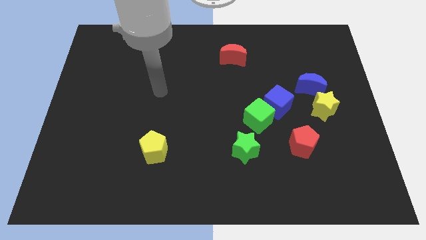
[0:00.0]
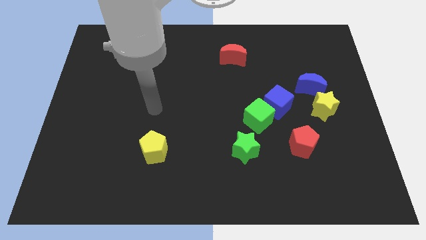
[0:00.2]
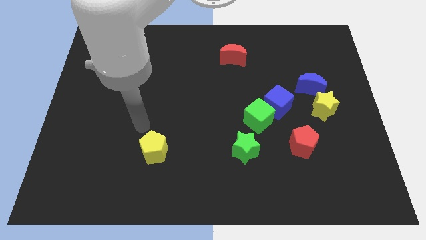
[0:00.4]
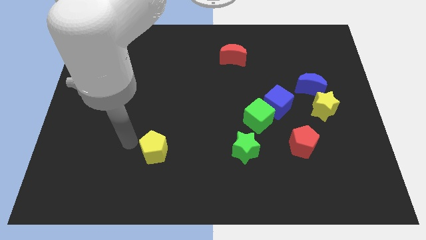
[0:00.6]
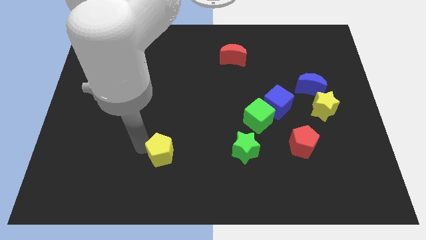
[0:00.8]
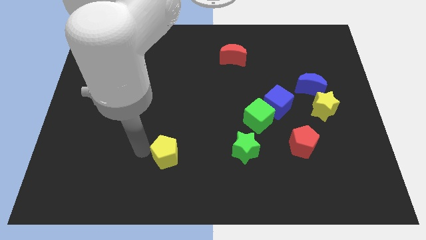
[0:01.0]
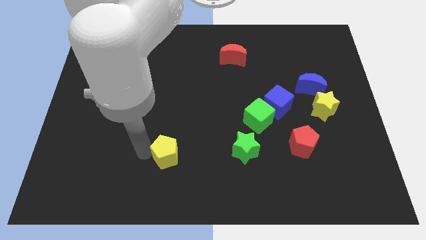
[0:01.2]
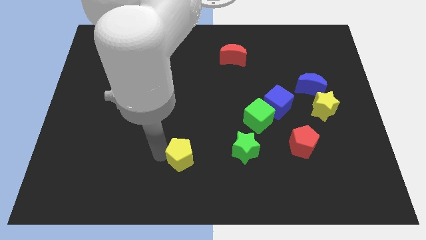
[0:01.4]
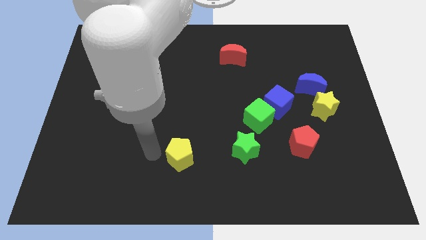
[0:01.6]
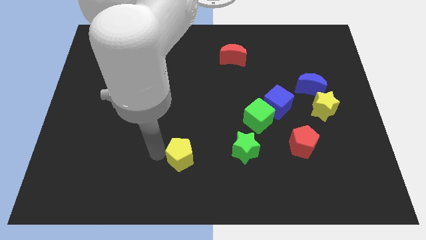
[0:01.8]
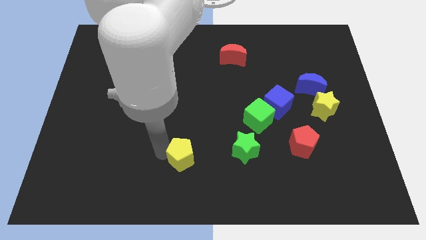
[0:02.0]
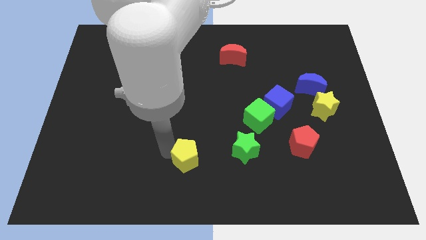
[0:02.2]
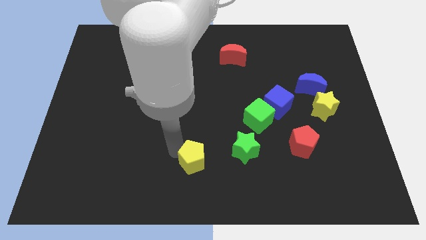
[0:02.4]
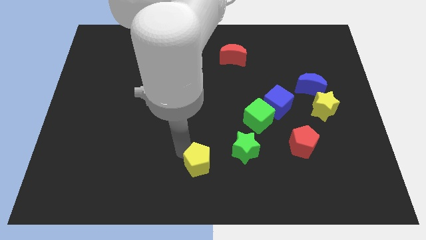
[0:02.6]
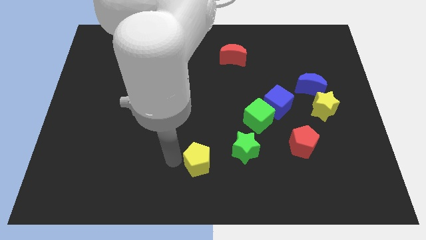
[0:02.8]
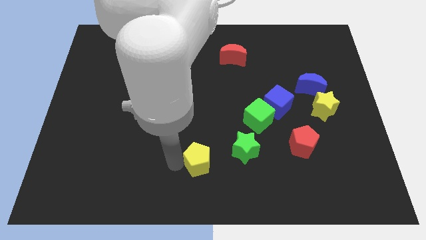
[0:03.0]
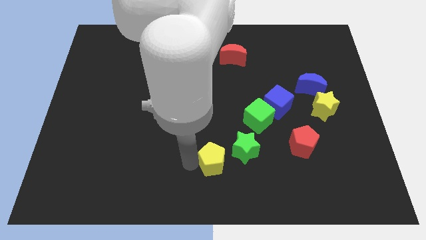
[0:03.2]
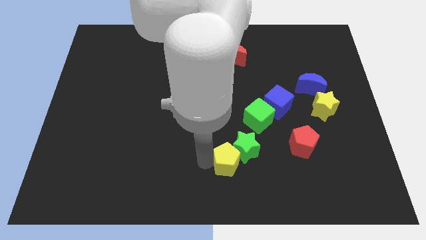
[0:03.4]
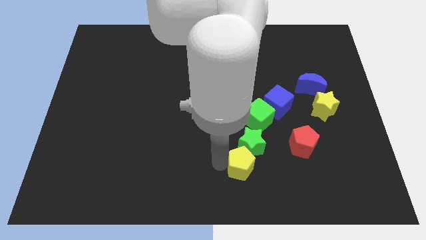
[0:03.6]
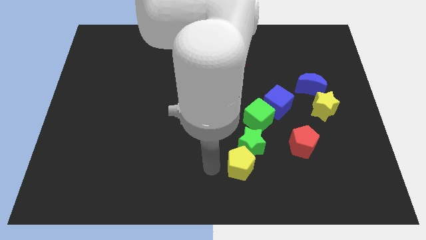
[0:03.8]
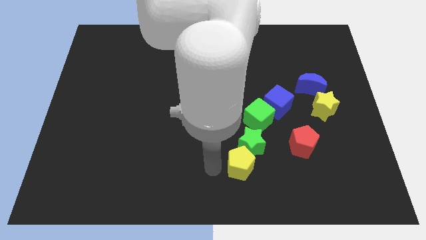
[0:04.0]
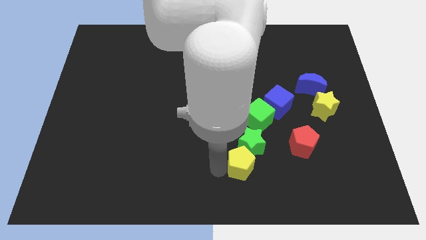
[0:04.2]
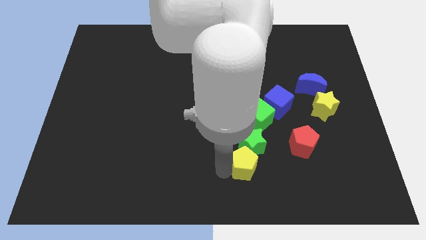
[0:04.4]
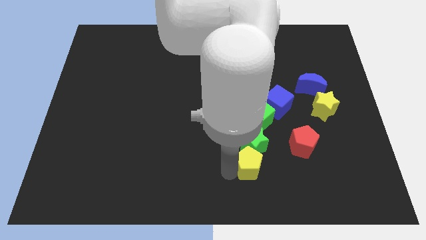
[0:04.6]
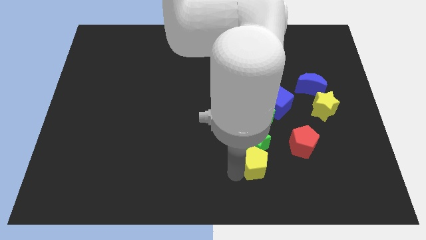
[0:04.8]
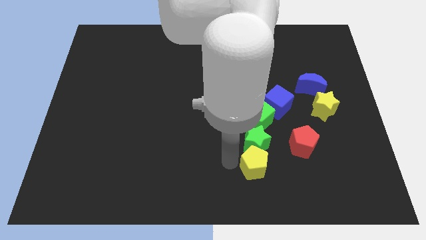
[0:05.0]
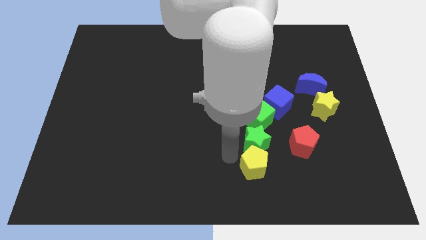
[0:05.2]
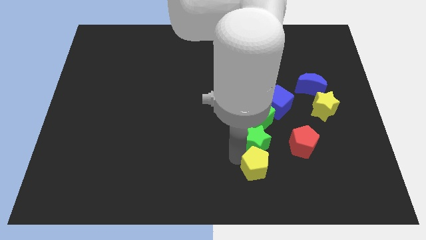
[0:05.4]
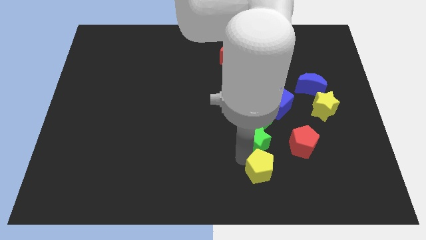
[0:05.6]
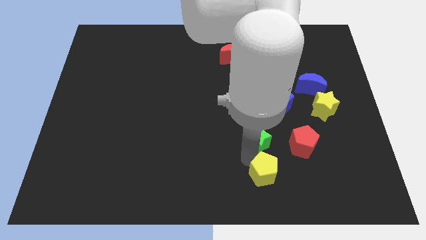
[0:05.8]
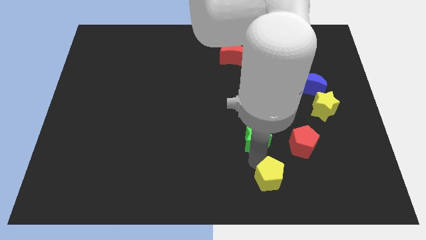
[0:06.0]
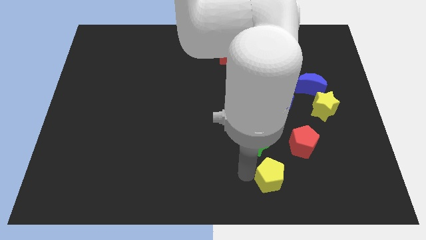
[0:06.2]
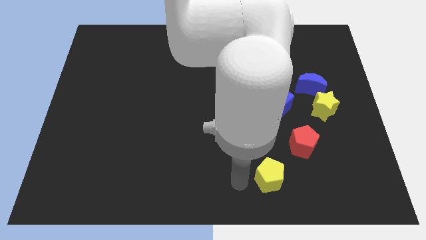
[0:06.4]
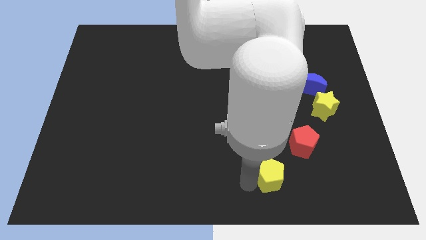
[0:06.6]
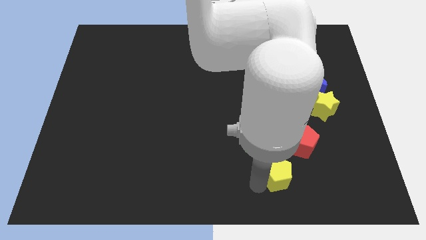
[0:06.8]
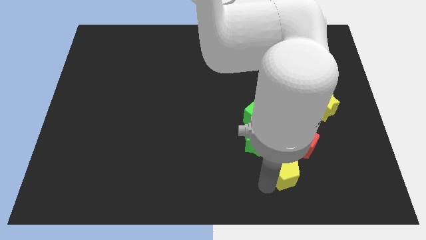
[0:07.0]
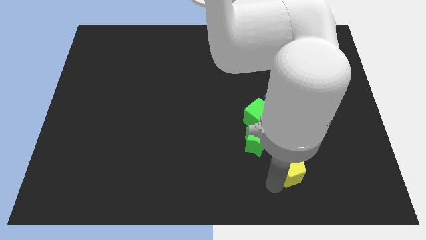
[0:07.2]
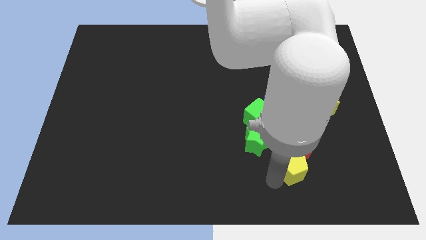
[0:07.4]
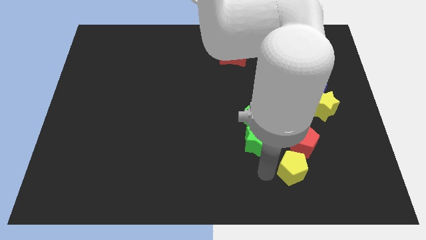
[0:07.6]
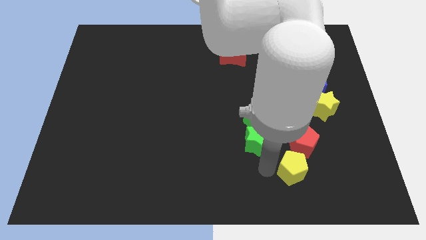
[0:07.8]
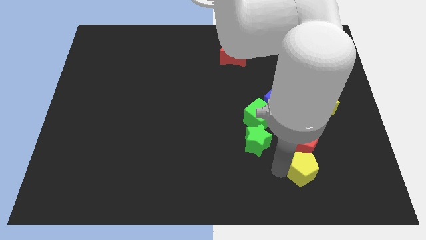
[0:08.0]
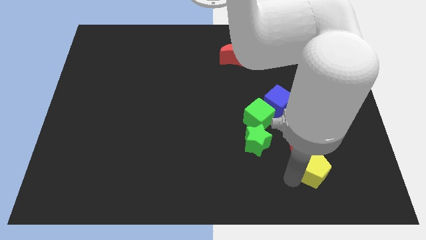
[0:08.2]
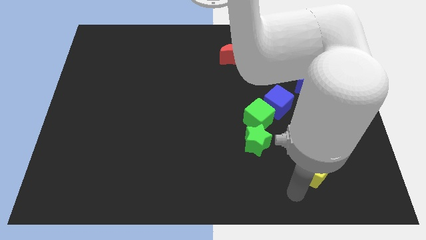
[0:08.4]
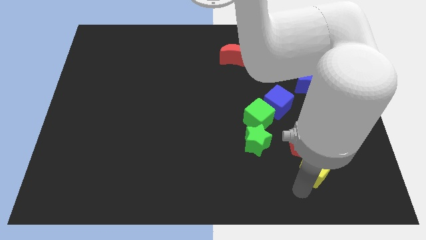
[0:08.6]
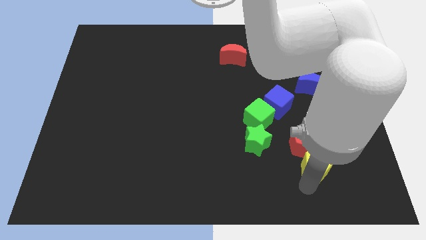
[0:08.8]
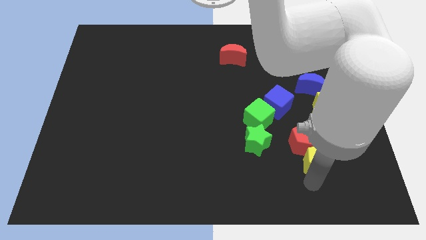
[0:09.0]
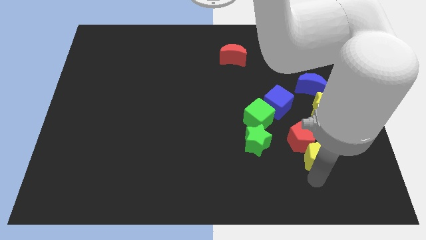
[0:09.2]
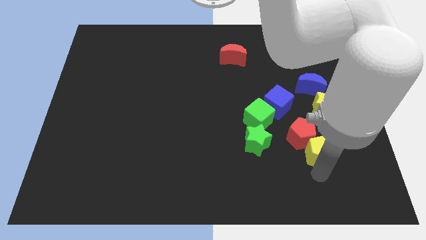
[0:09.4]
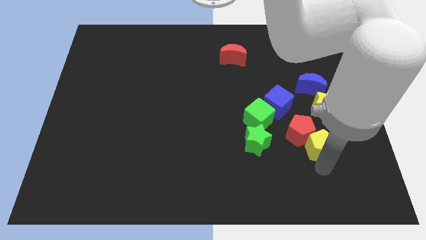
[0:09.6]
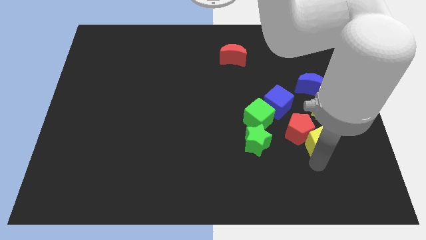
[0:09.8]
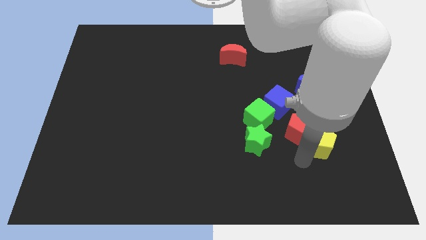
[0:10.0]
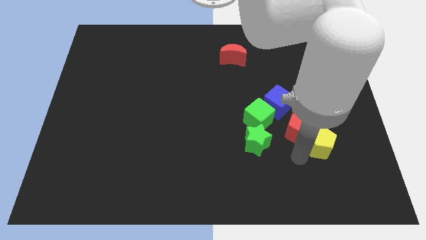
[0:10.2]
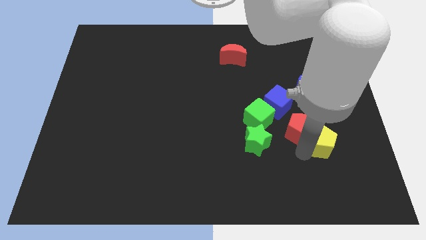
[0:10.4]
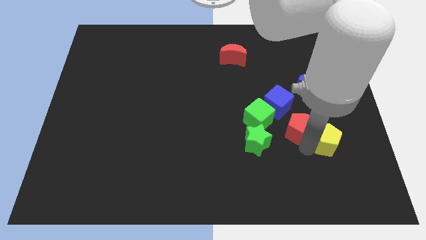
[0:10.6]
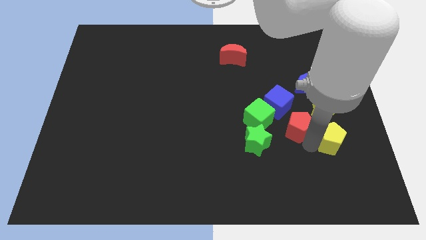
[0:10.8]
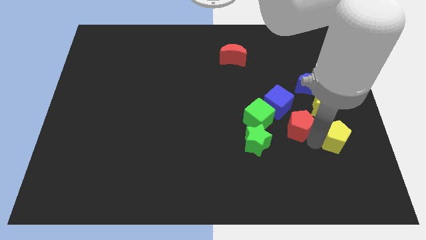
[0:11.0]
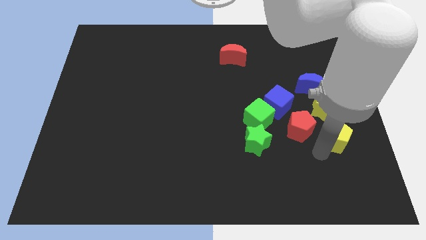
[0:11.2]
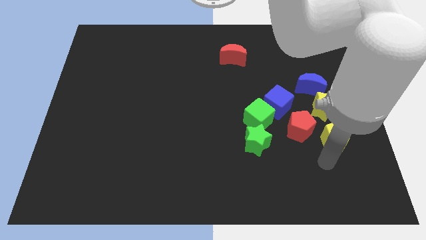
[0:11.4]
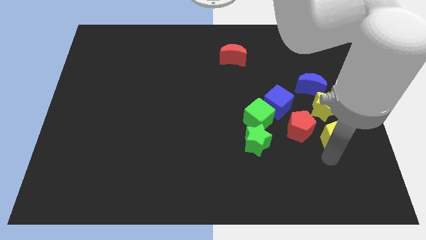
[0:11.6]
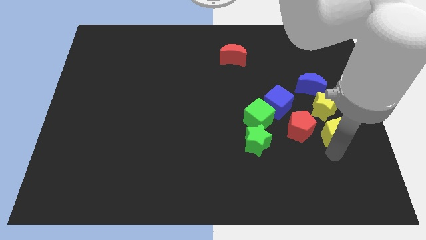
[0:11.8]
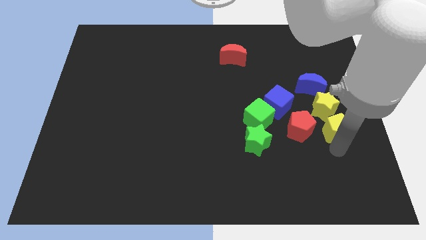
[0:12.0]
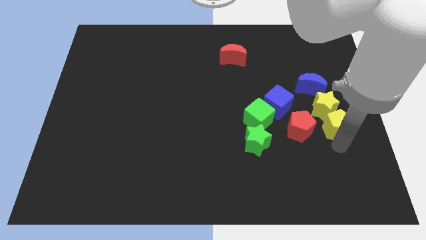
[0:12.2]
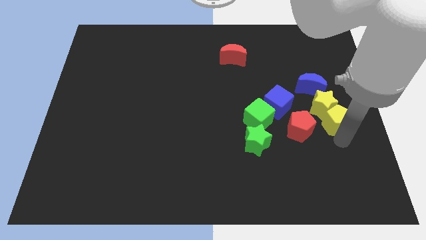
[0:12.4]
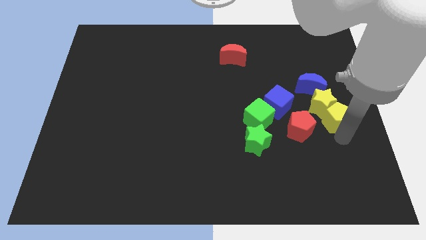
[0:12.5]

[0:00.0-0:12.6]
push the yellow pentagon to the bottom right side of the blue moon
